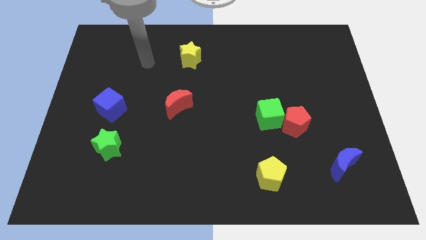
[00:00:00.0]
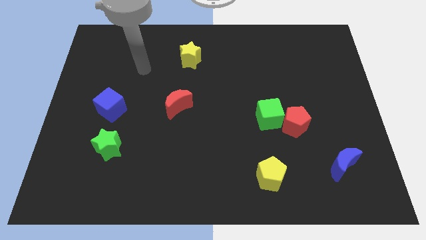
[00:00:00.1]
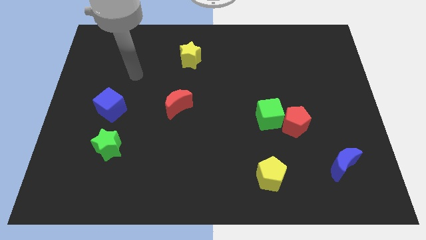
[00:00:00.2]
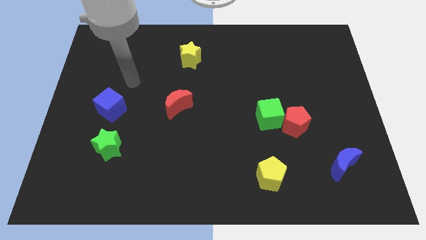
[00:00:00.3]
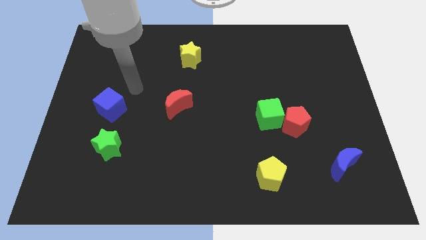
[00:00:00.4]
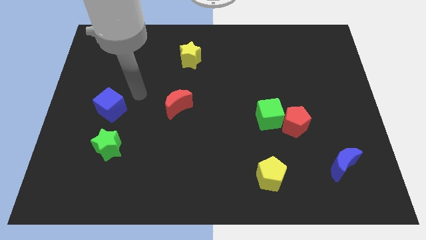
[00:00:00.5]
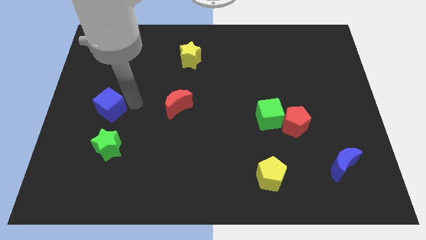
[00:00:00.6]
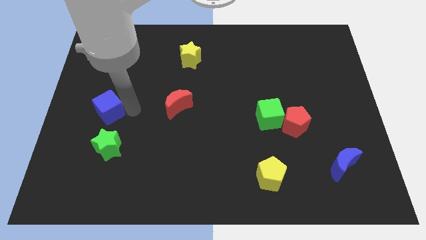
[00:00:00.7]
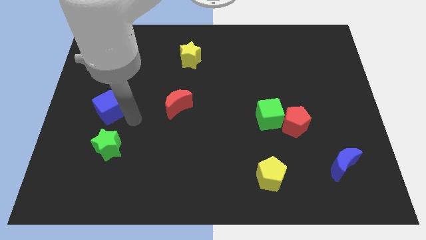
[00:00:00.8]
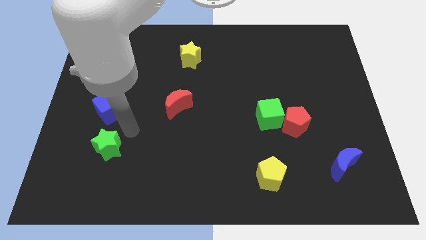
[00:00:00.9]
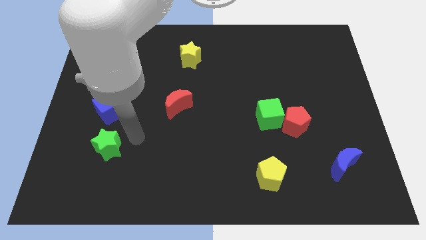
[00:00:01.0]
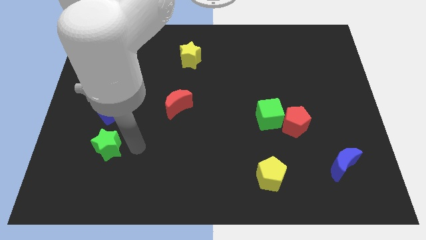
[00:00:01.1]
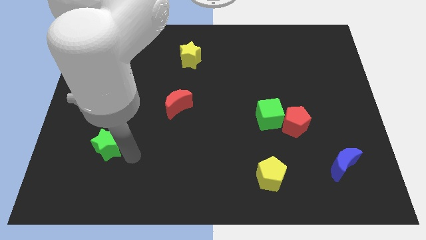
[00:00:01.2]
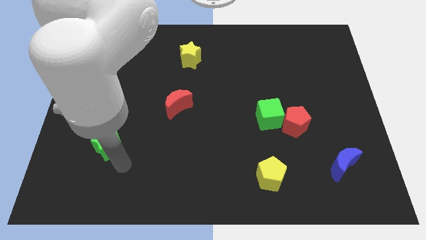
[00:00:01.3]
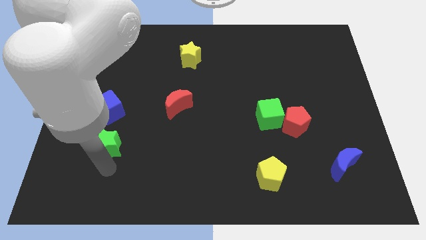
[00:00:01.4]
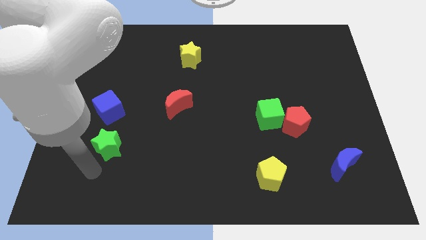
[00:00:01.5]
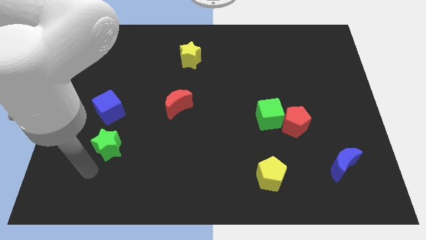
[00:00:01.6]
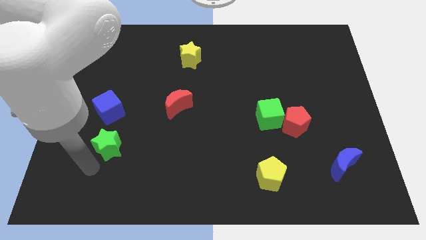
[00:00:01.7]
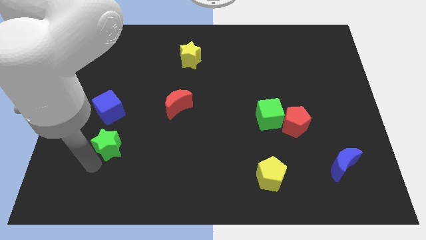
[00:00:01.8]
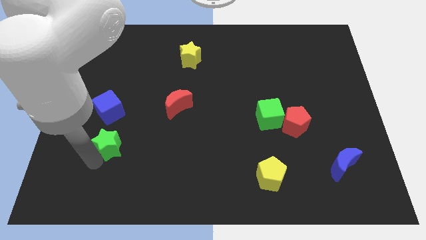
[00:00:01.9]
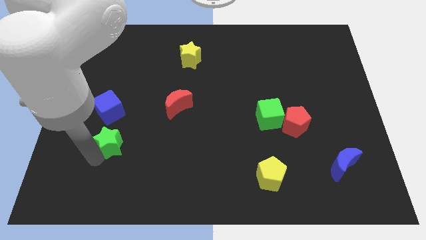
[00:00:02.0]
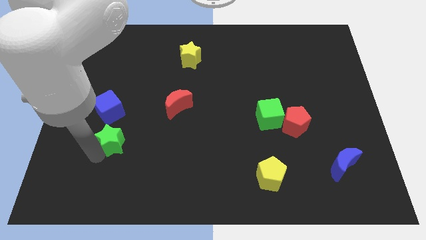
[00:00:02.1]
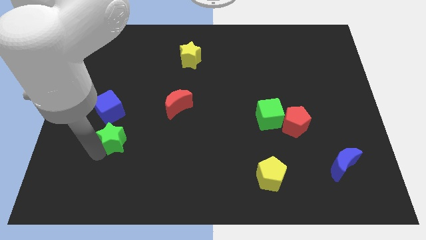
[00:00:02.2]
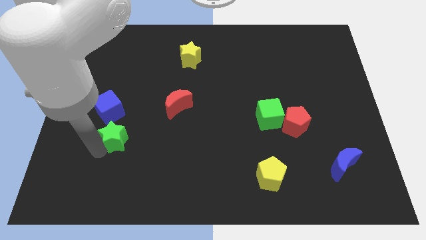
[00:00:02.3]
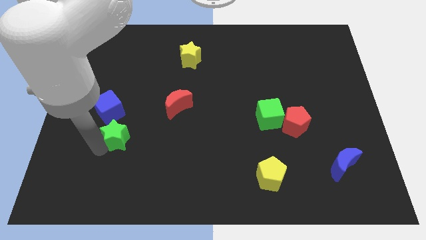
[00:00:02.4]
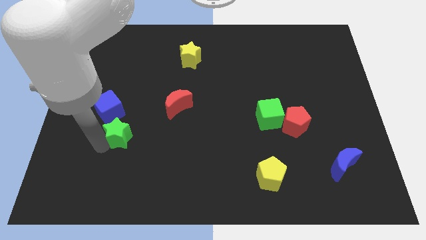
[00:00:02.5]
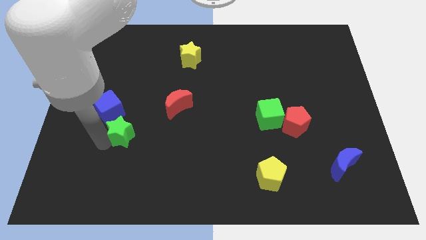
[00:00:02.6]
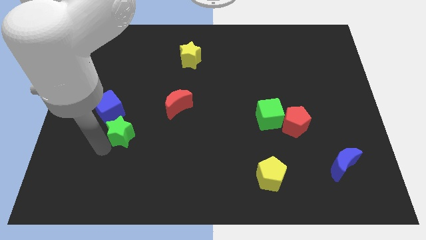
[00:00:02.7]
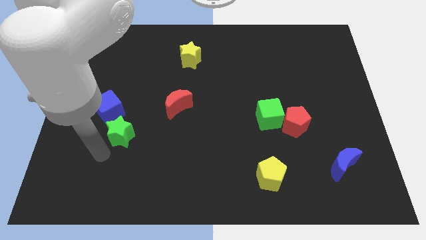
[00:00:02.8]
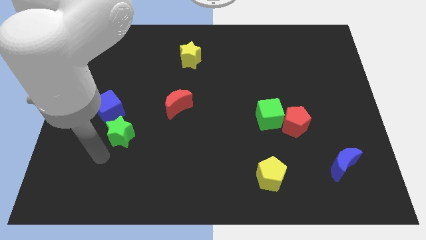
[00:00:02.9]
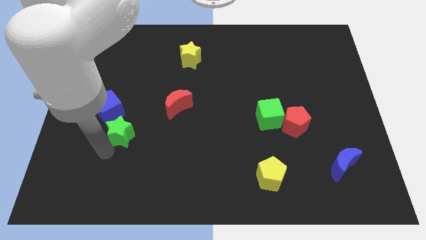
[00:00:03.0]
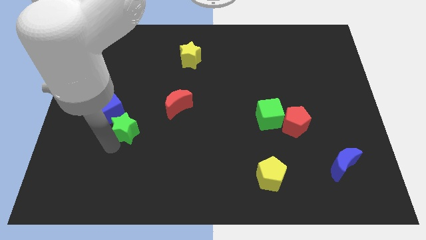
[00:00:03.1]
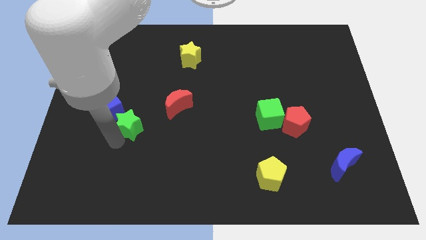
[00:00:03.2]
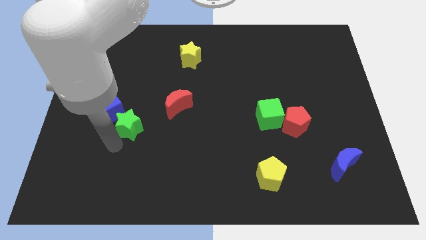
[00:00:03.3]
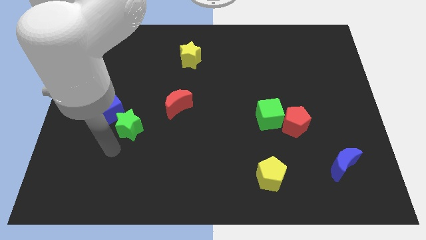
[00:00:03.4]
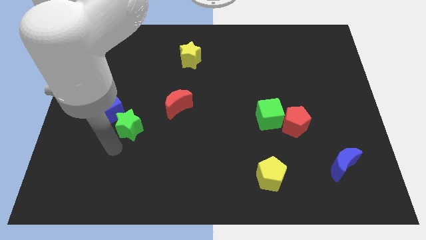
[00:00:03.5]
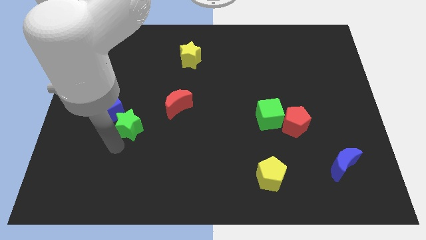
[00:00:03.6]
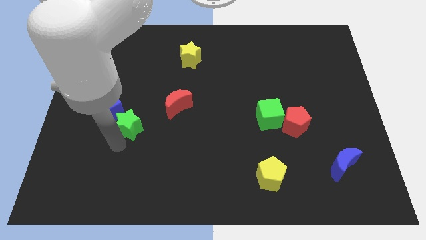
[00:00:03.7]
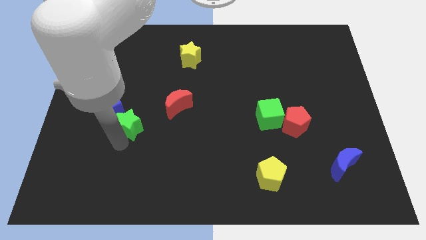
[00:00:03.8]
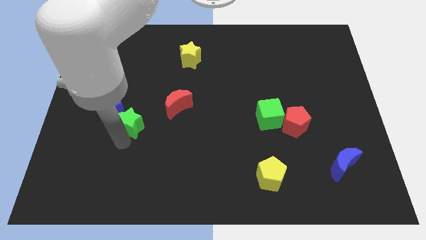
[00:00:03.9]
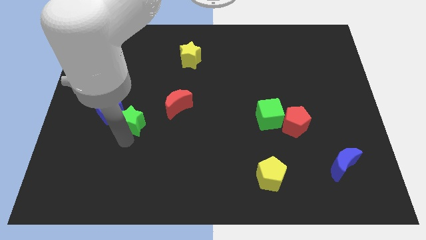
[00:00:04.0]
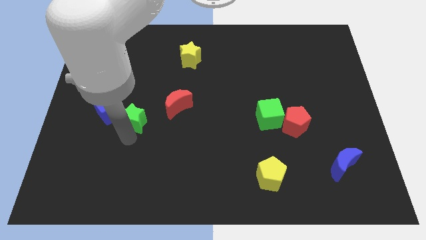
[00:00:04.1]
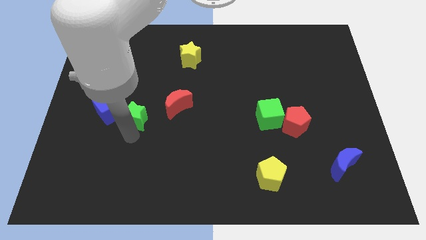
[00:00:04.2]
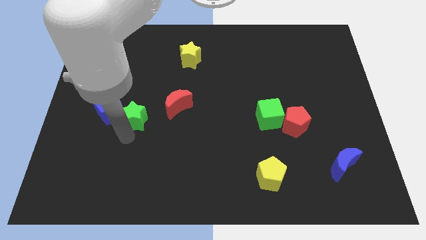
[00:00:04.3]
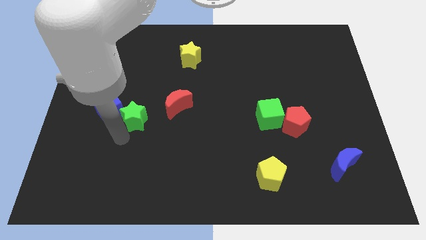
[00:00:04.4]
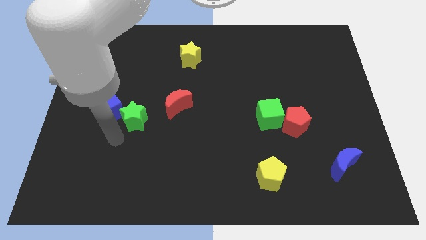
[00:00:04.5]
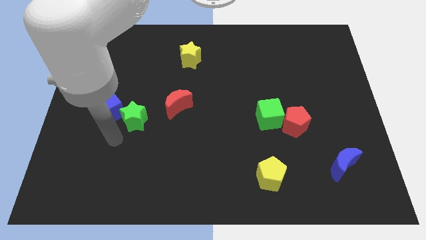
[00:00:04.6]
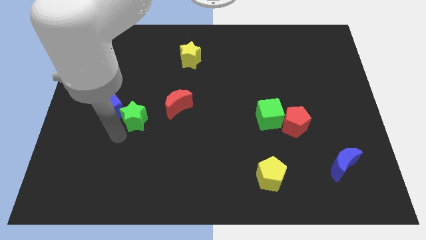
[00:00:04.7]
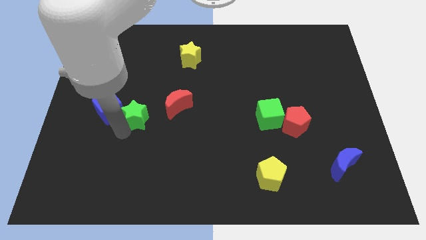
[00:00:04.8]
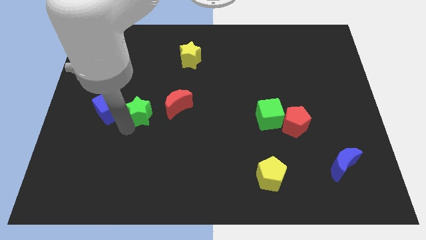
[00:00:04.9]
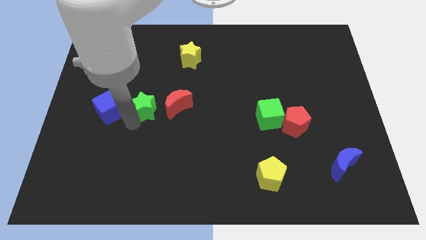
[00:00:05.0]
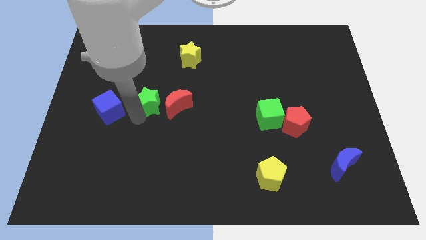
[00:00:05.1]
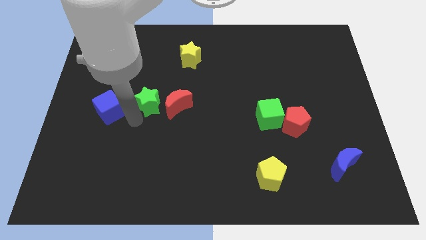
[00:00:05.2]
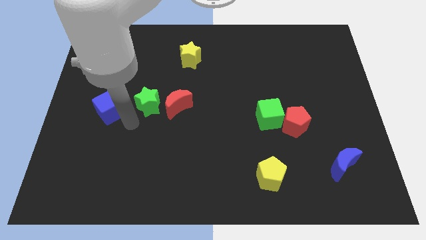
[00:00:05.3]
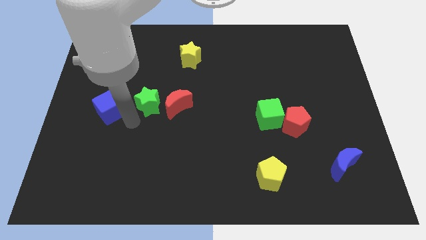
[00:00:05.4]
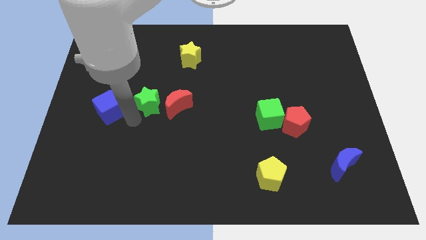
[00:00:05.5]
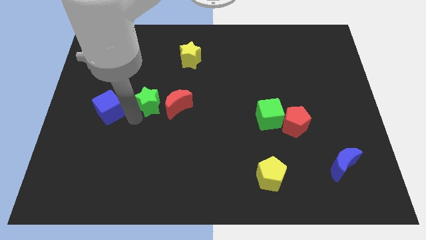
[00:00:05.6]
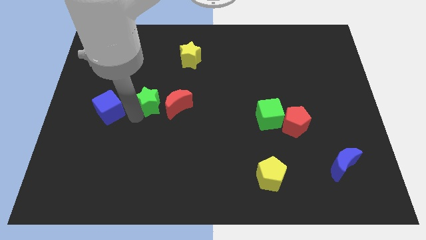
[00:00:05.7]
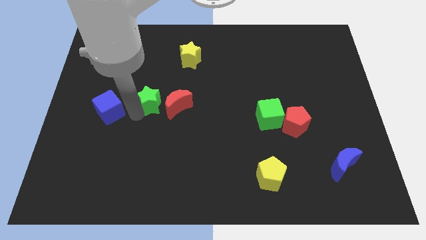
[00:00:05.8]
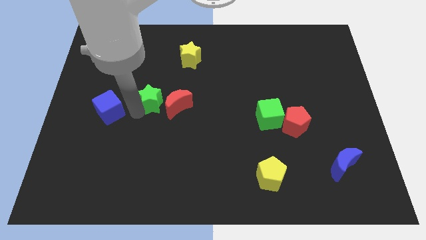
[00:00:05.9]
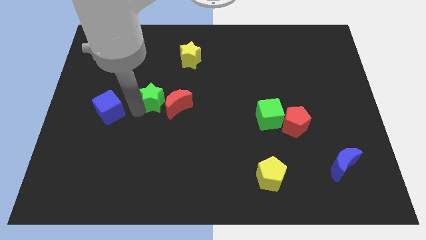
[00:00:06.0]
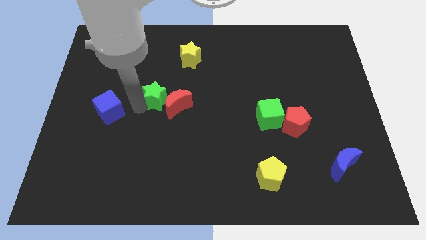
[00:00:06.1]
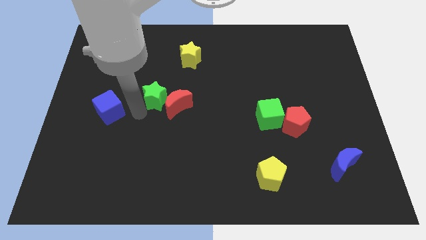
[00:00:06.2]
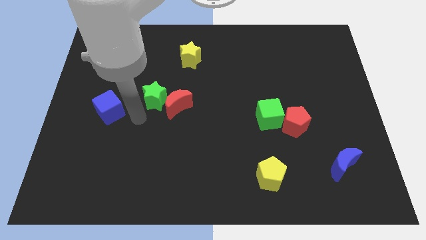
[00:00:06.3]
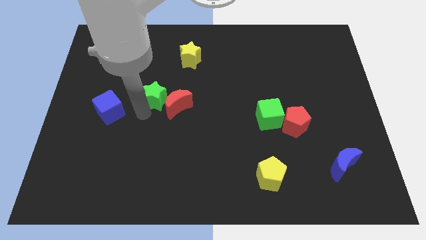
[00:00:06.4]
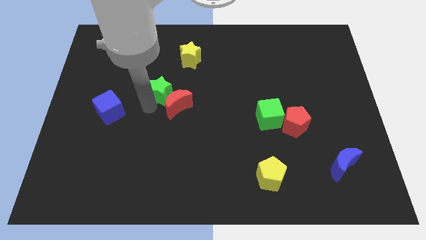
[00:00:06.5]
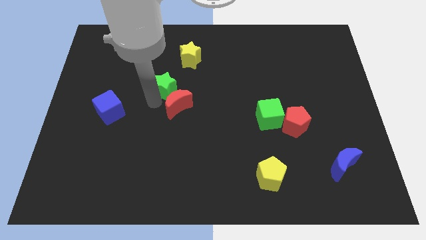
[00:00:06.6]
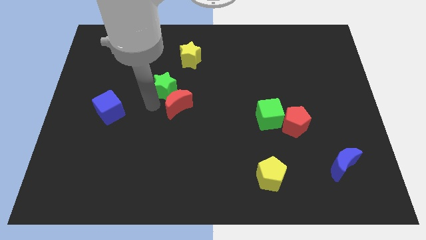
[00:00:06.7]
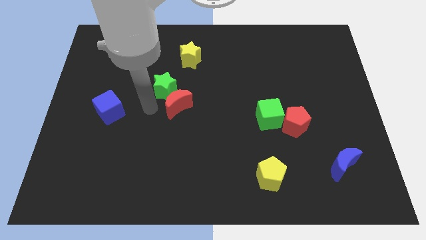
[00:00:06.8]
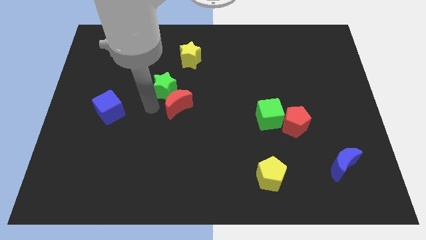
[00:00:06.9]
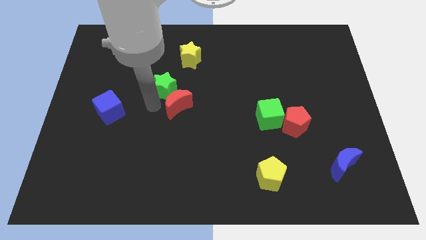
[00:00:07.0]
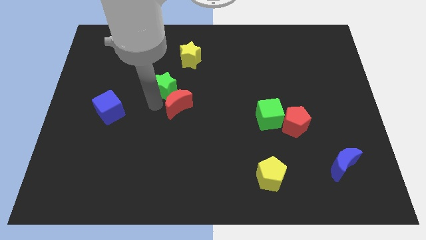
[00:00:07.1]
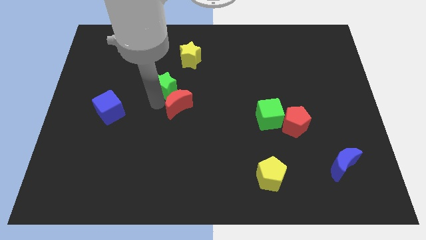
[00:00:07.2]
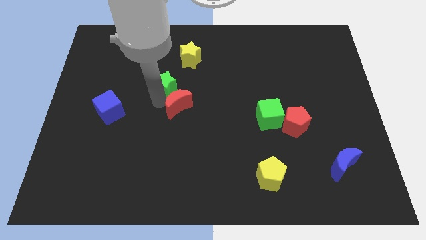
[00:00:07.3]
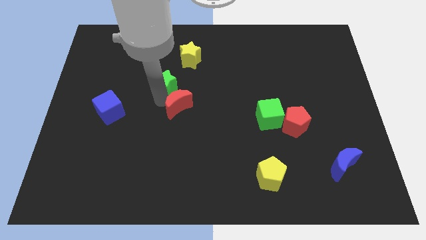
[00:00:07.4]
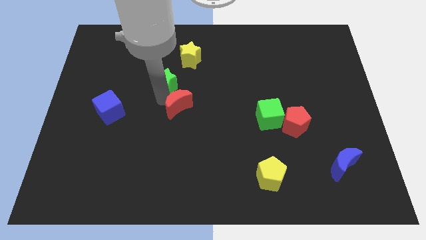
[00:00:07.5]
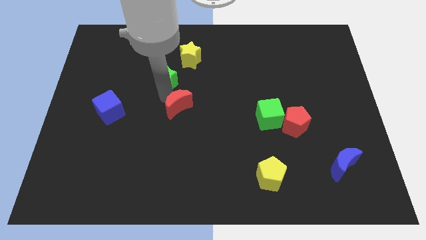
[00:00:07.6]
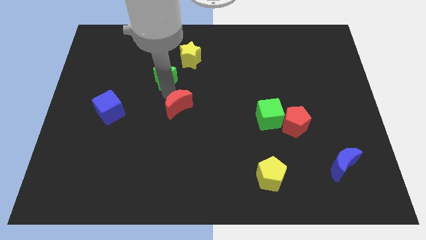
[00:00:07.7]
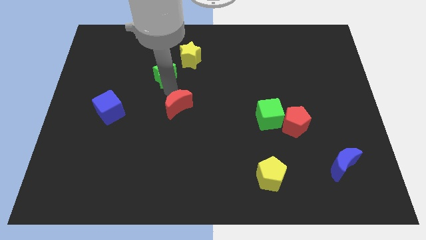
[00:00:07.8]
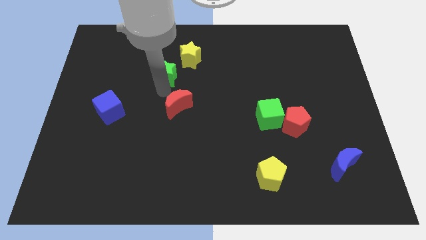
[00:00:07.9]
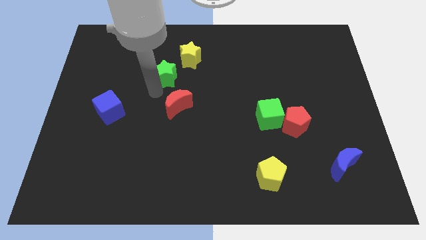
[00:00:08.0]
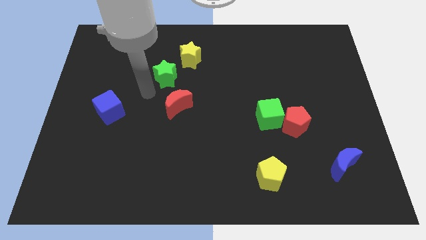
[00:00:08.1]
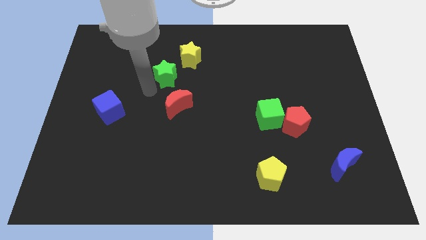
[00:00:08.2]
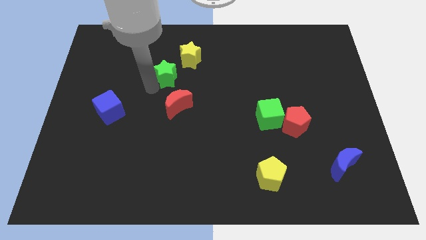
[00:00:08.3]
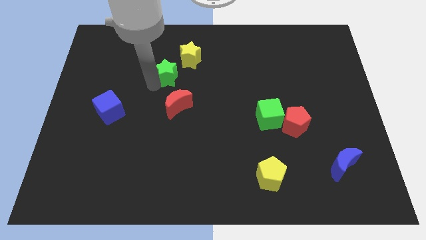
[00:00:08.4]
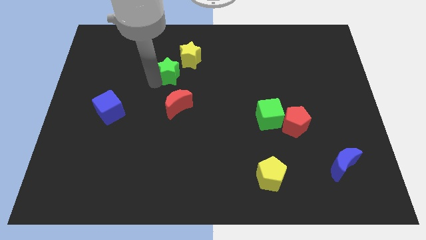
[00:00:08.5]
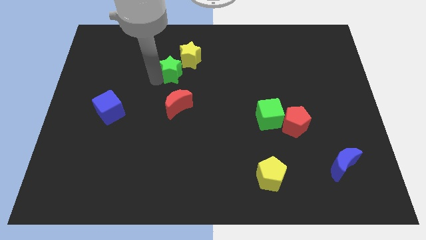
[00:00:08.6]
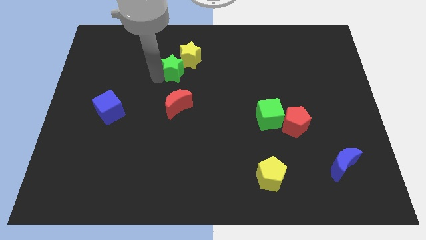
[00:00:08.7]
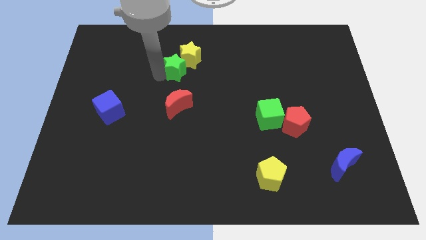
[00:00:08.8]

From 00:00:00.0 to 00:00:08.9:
put the green star close to the yellow star
